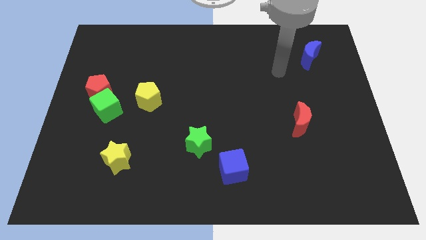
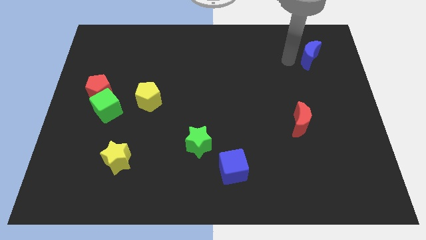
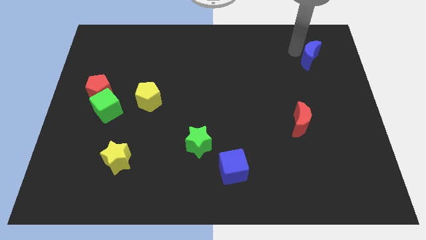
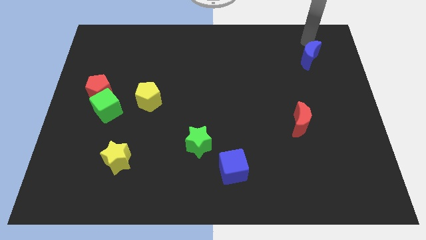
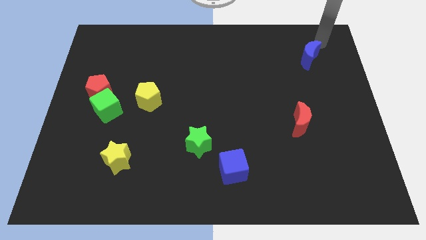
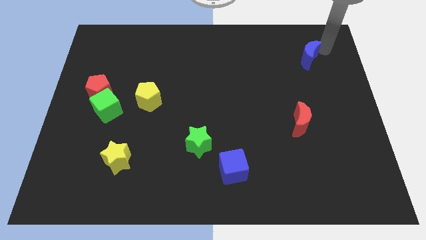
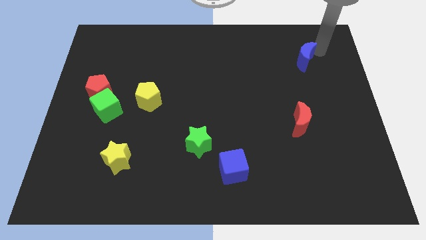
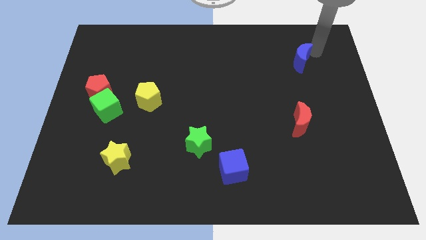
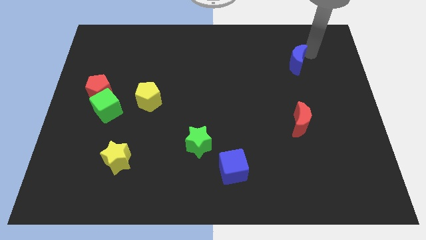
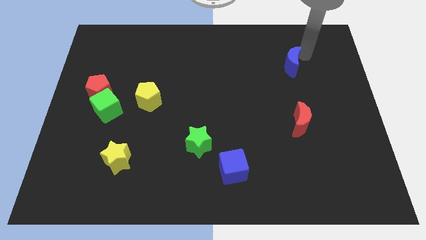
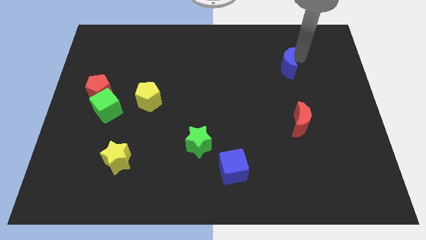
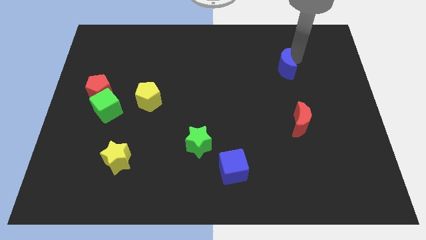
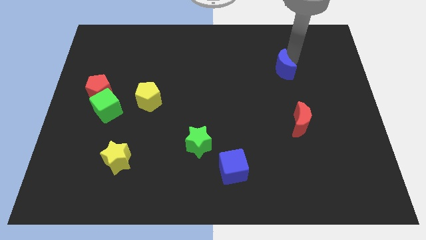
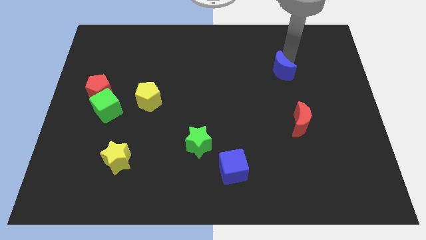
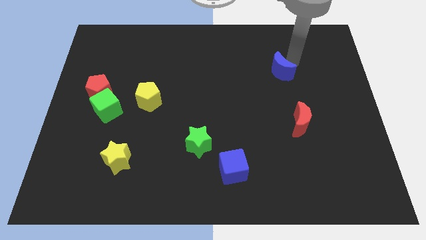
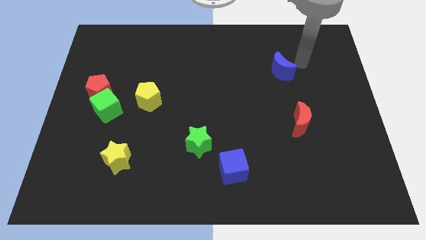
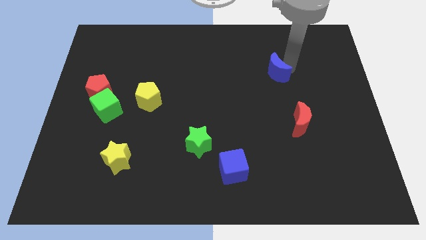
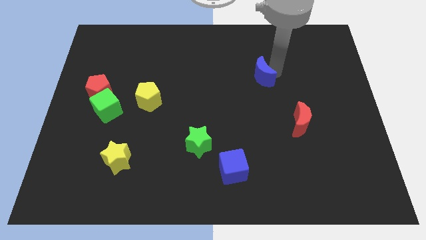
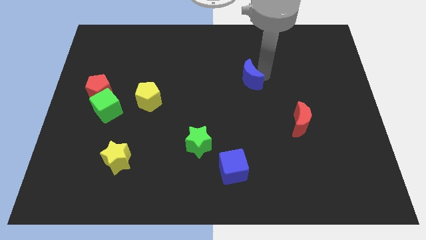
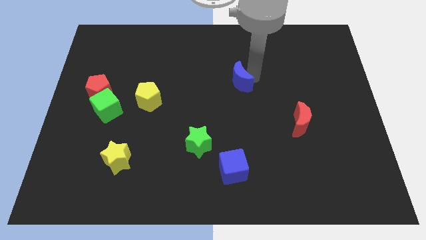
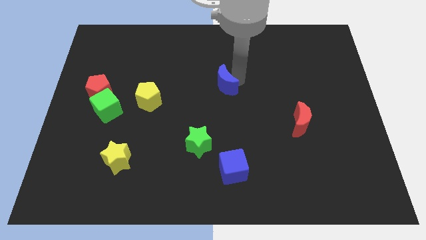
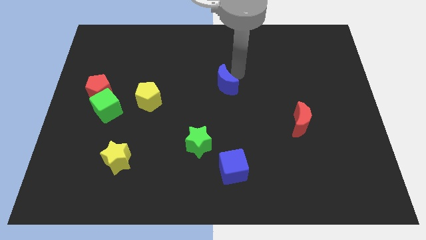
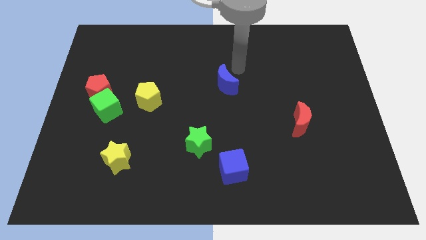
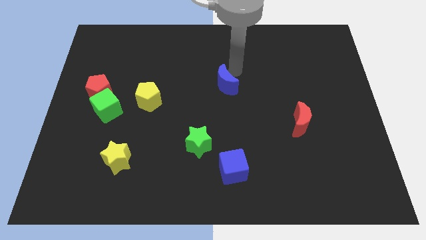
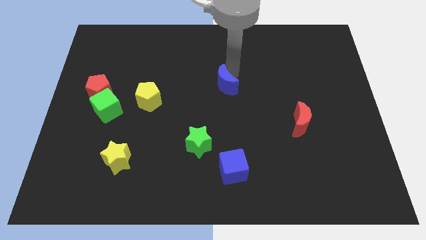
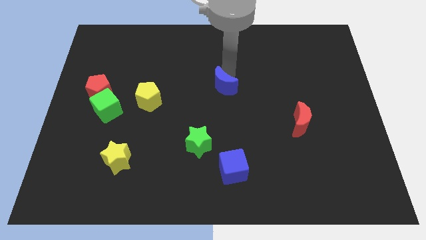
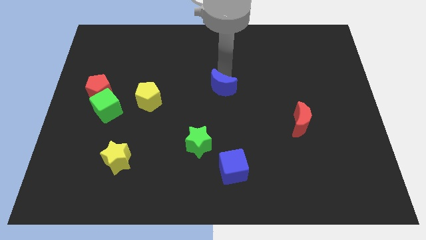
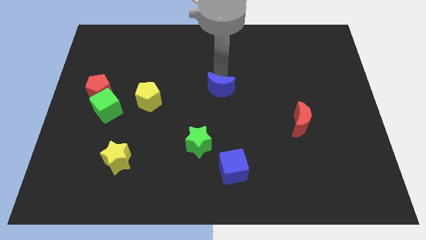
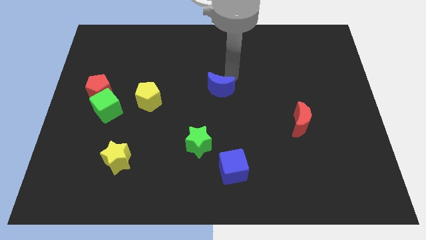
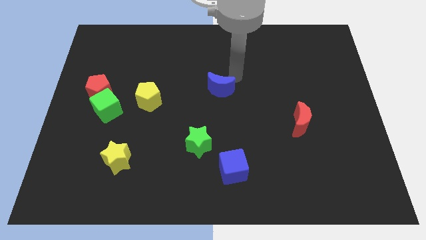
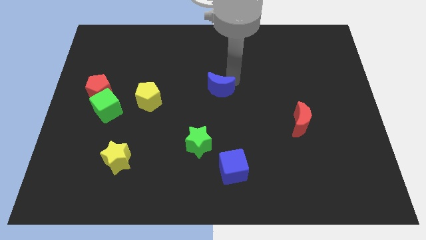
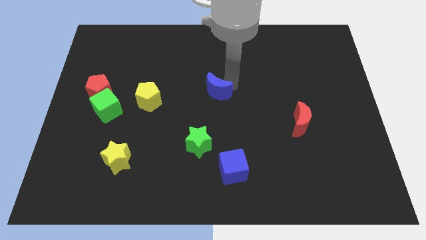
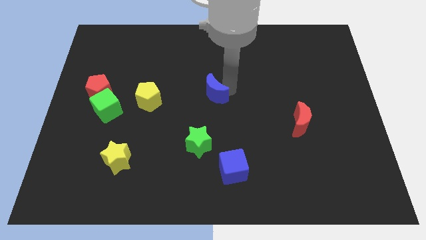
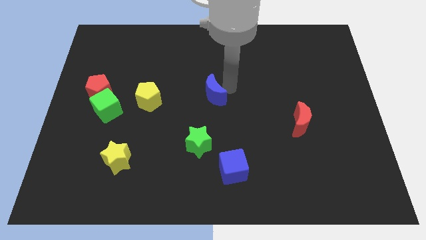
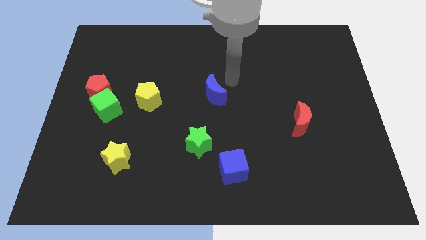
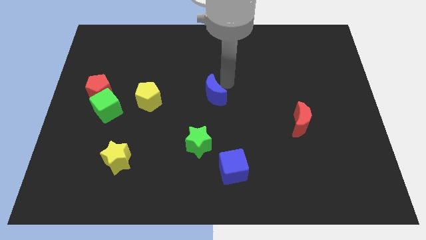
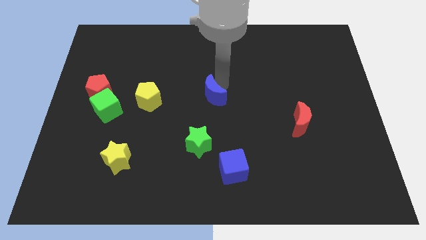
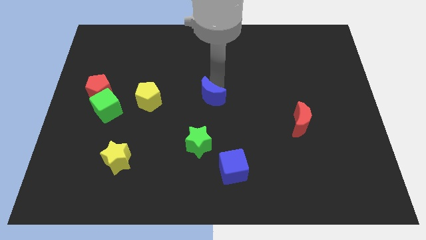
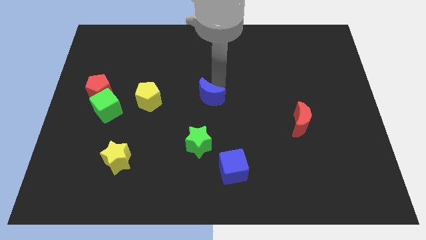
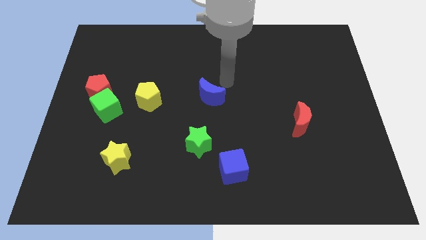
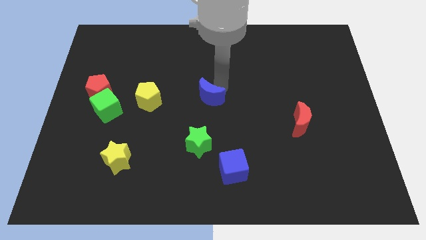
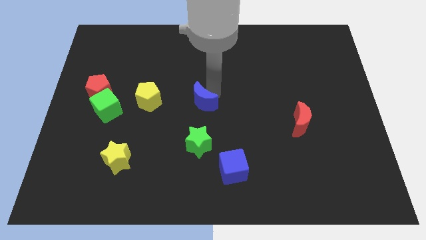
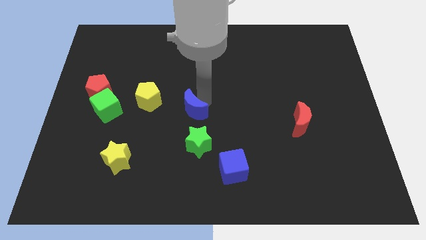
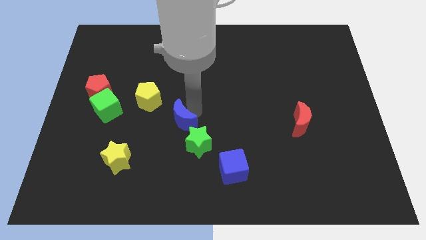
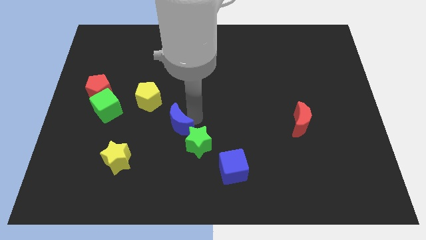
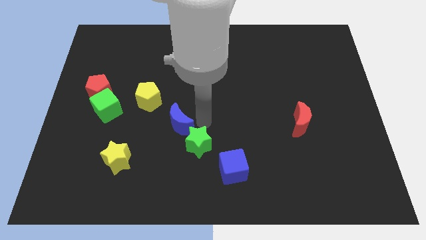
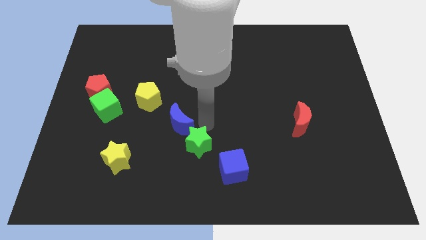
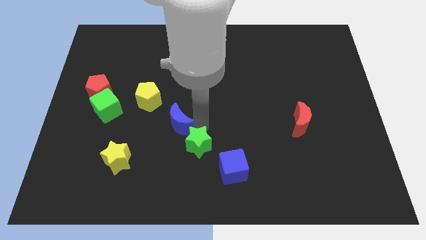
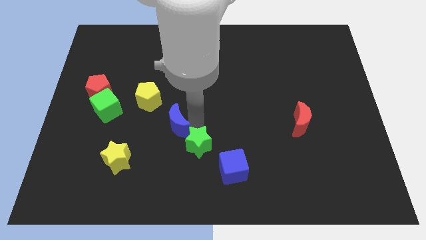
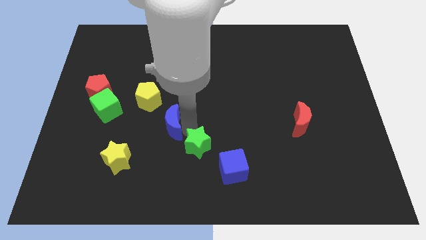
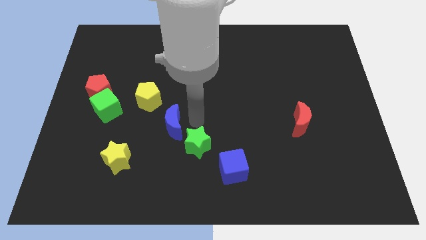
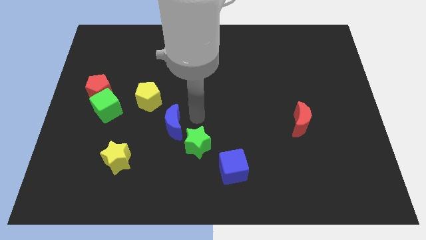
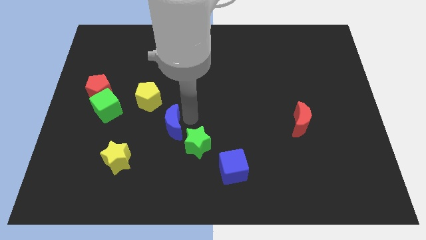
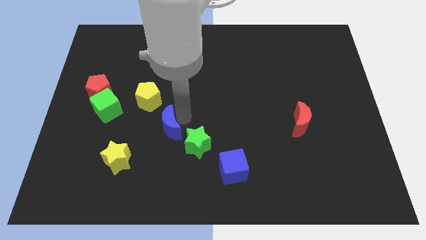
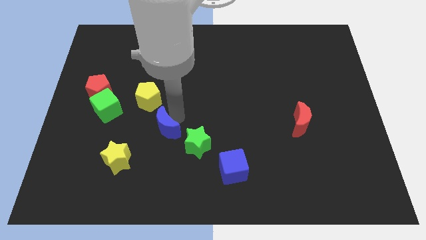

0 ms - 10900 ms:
slide the blue moon to the bottom side of the yellow pentagon

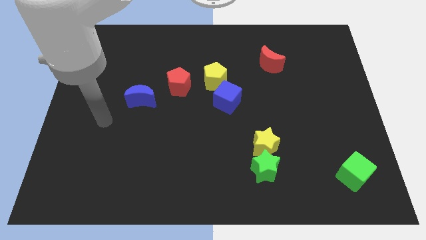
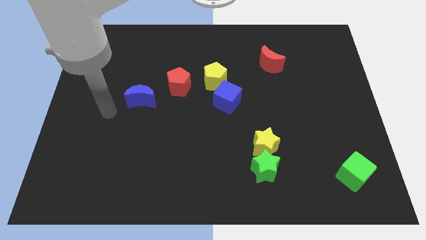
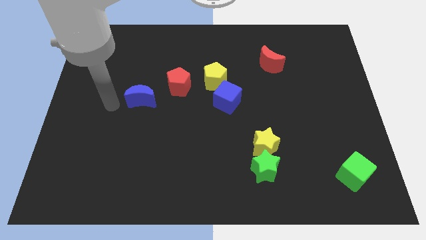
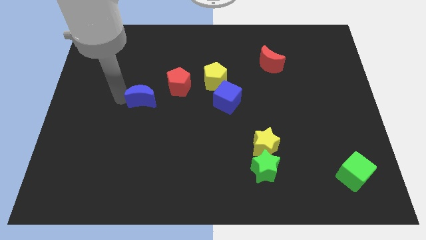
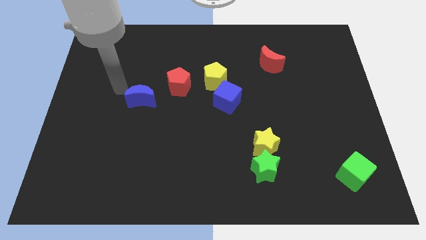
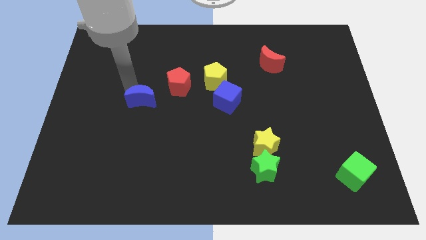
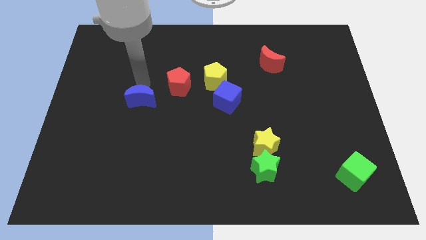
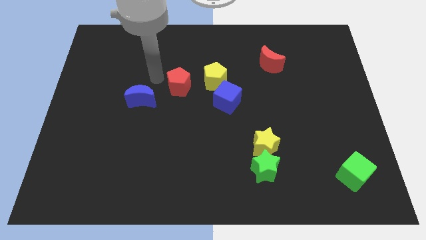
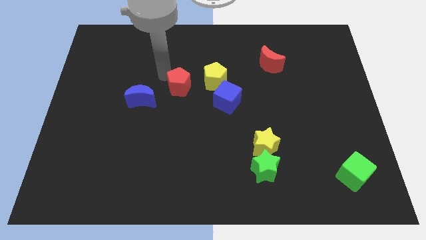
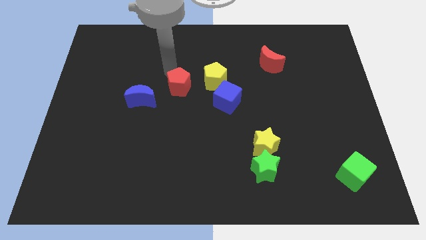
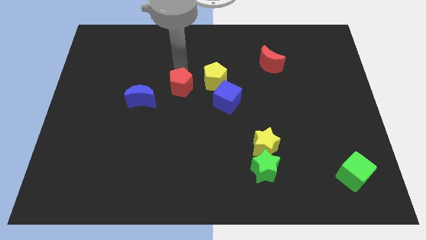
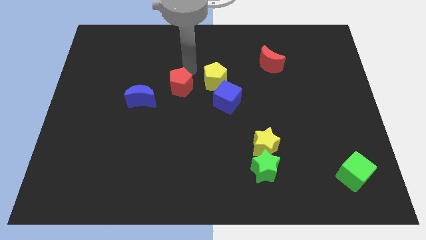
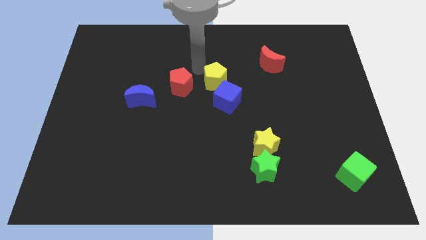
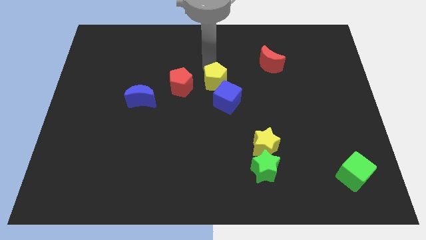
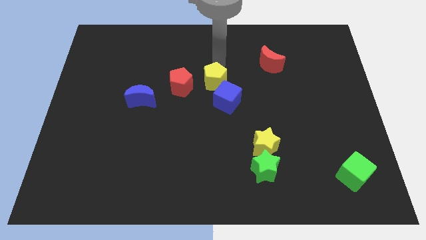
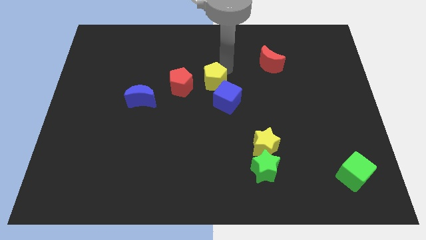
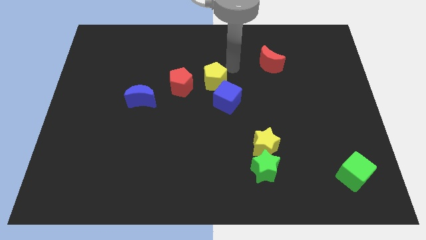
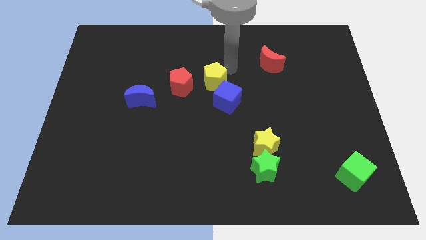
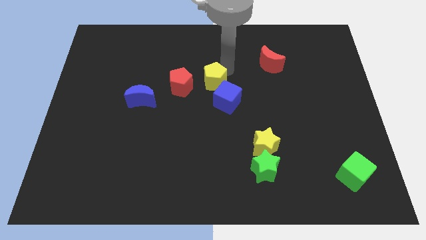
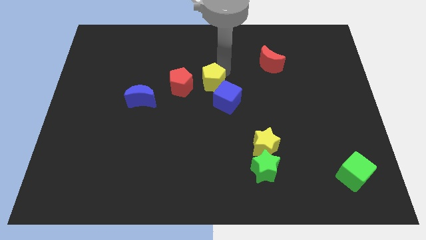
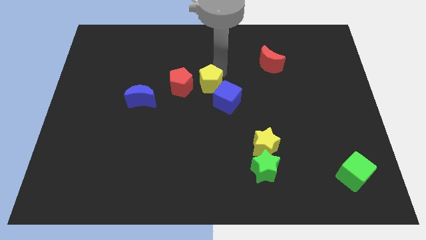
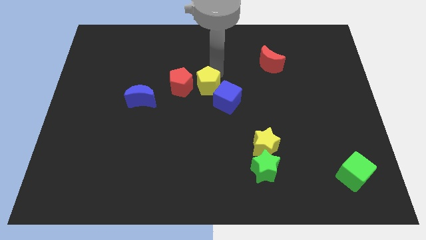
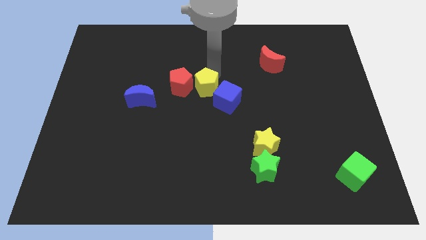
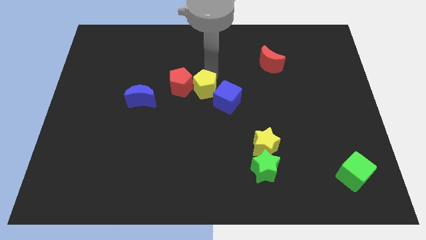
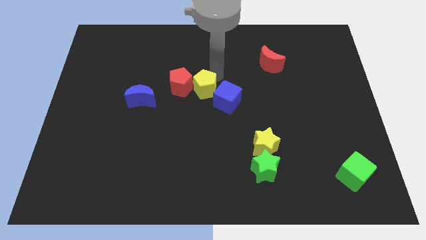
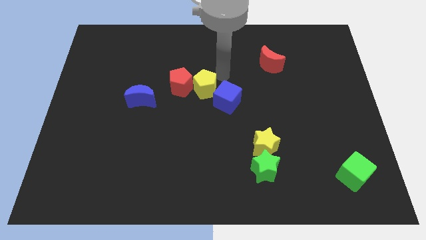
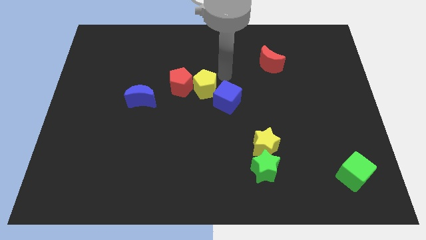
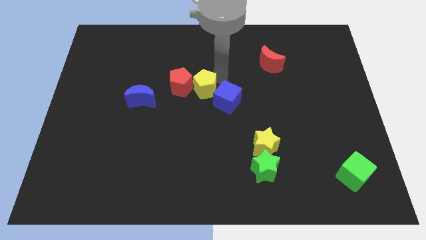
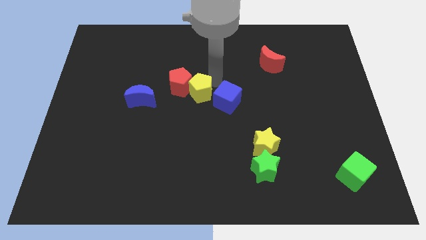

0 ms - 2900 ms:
move the yellow pentagon just right of the blue moon
